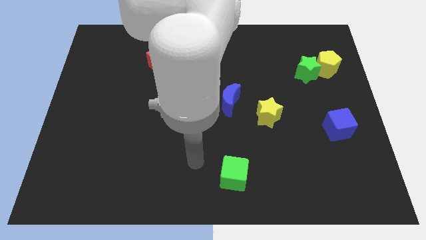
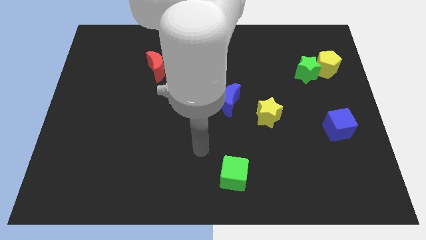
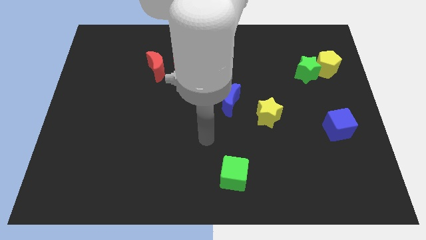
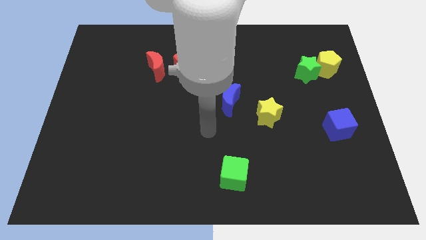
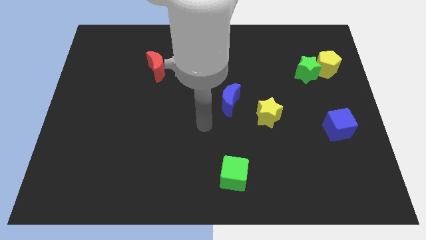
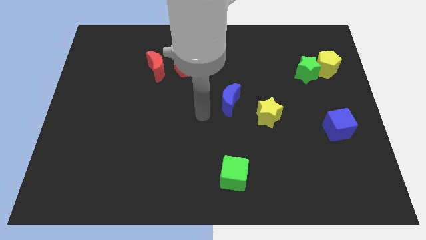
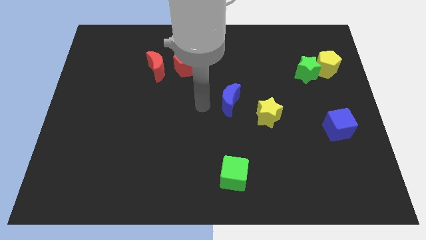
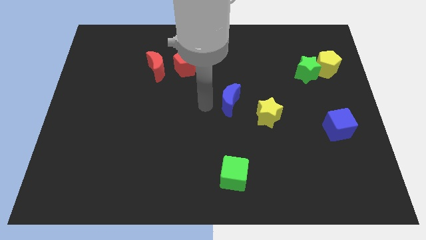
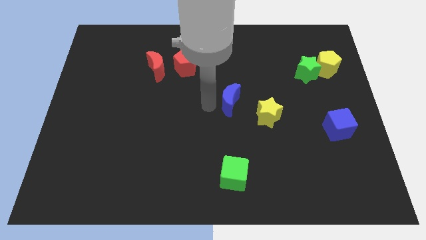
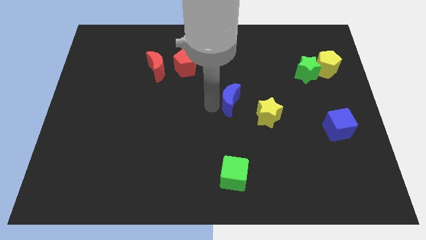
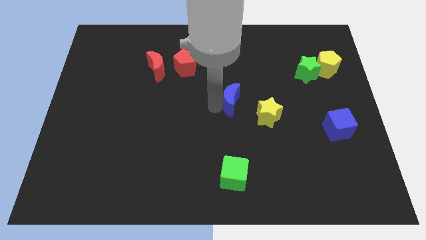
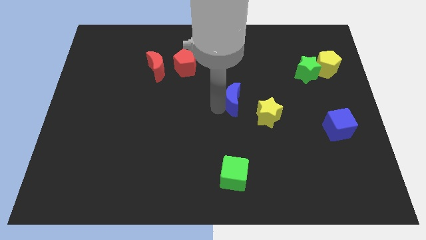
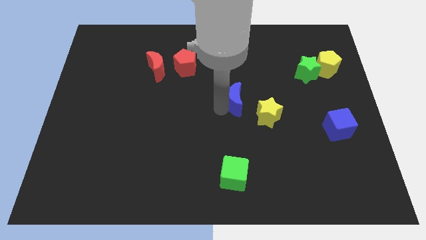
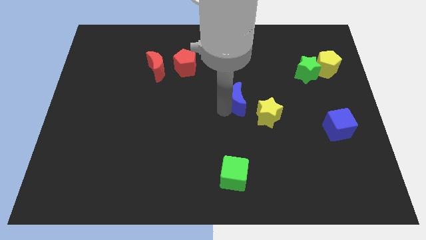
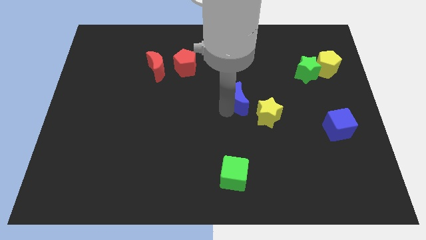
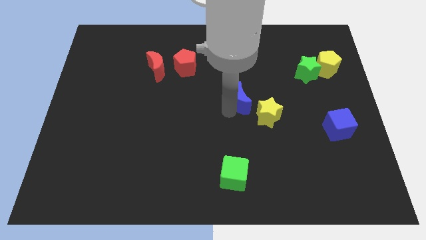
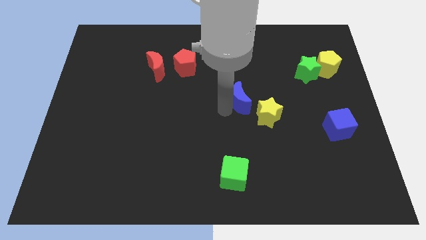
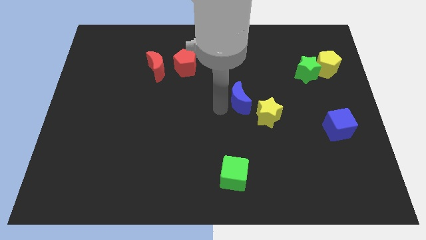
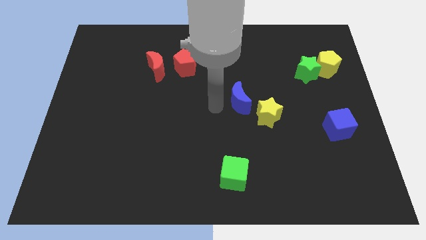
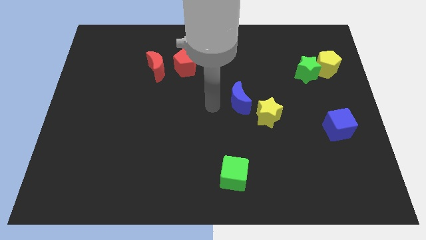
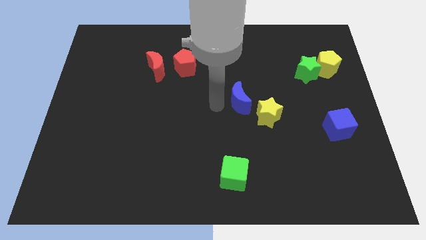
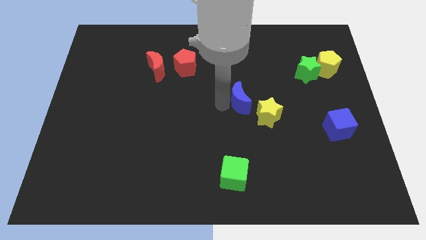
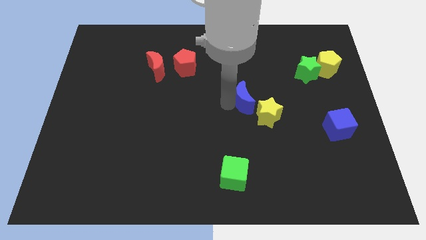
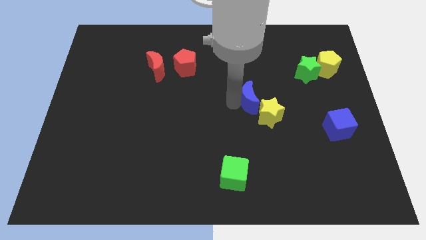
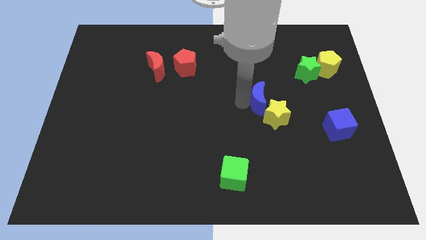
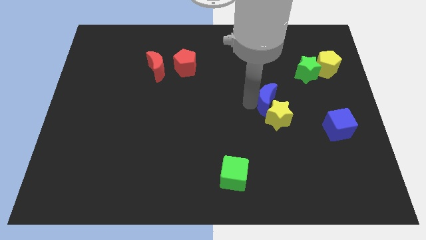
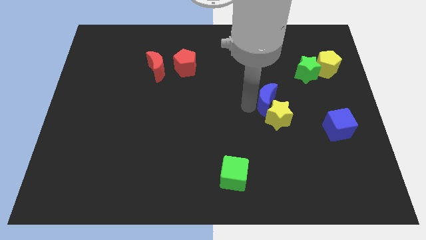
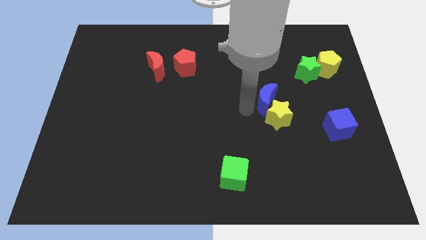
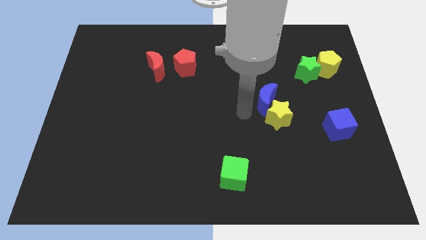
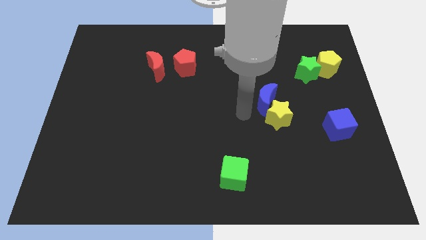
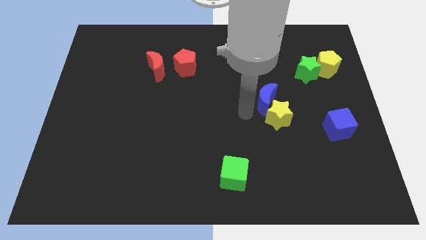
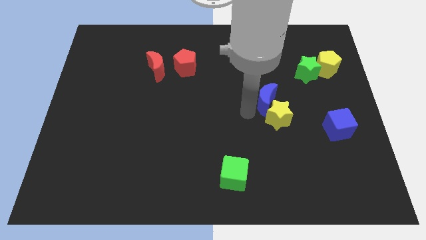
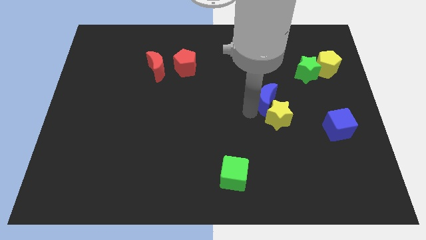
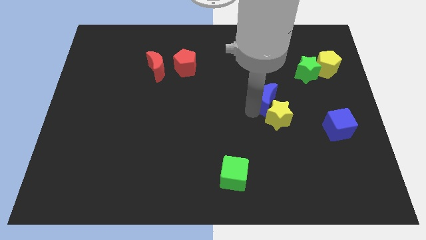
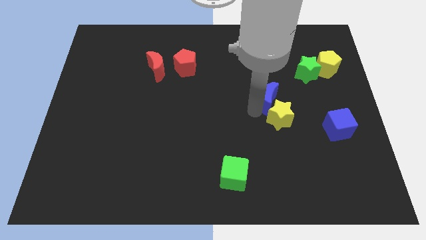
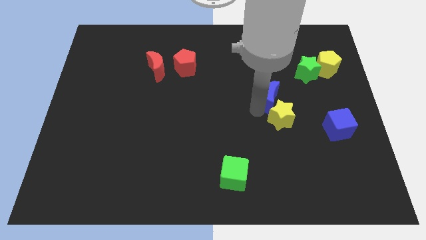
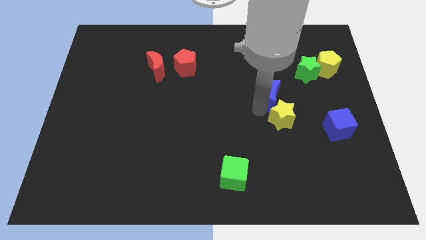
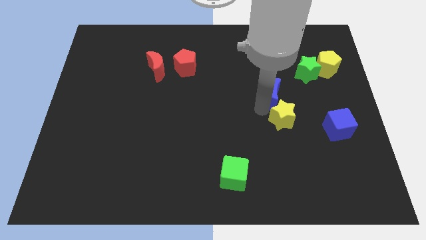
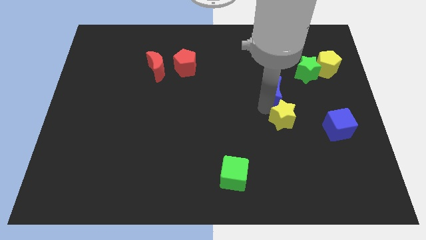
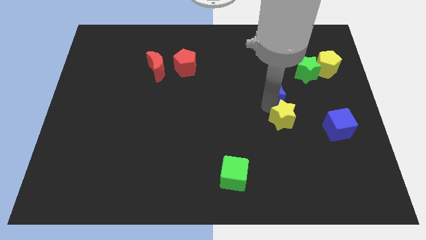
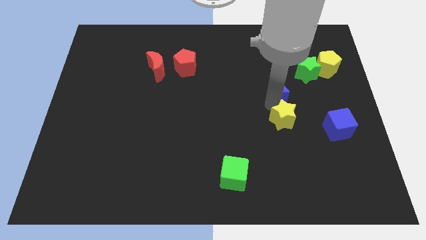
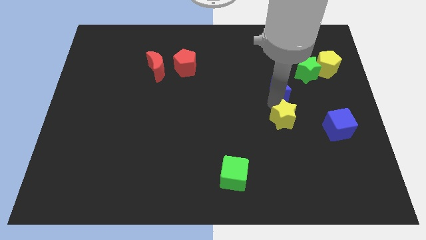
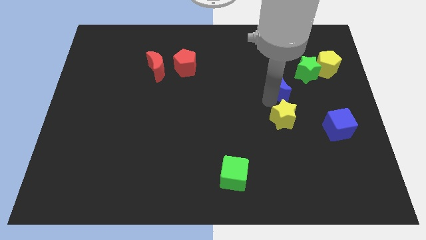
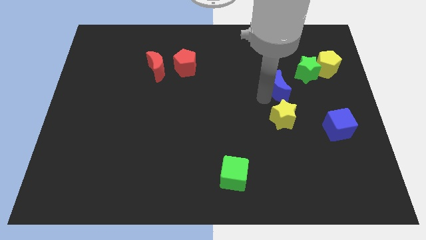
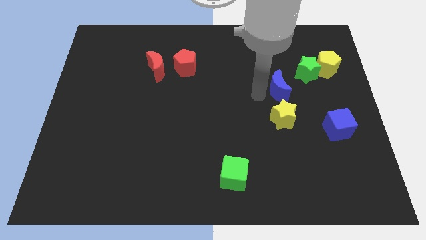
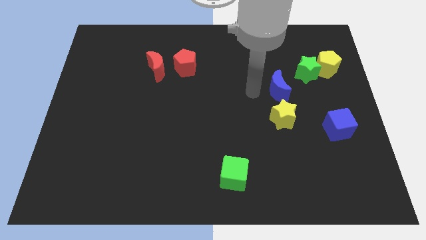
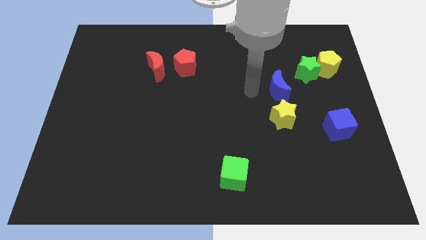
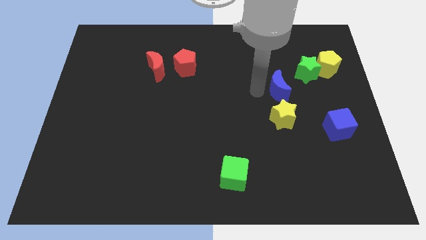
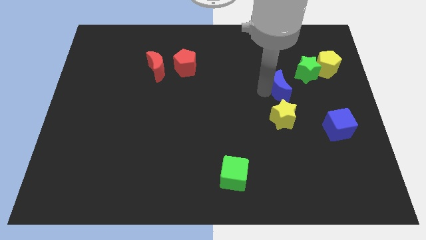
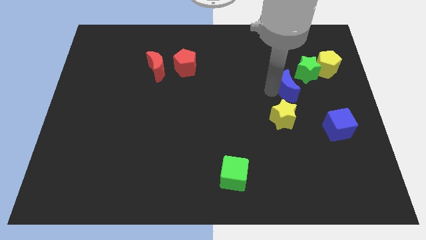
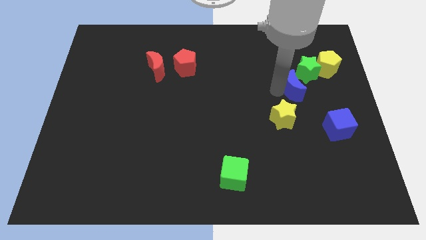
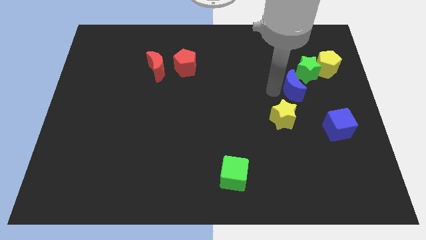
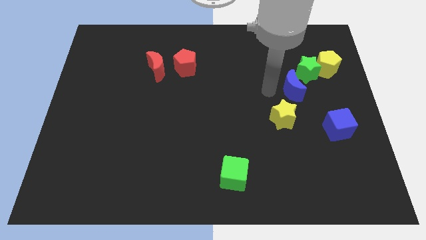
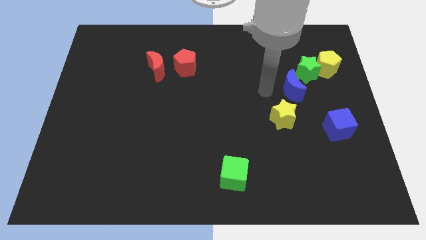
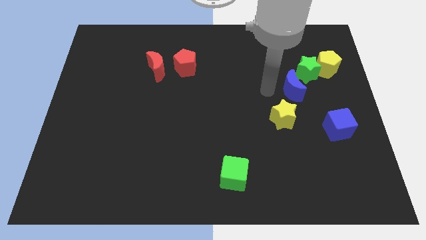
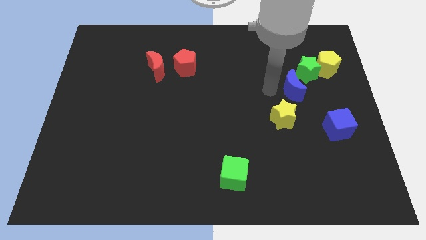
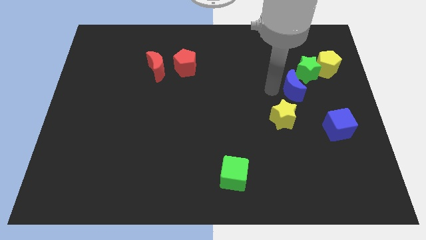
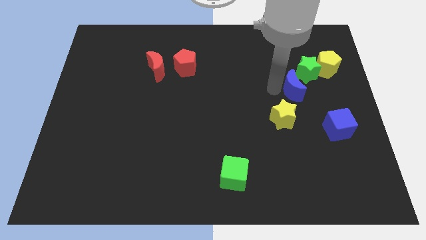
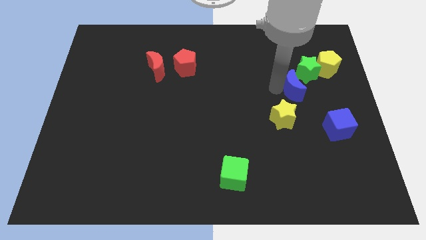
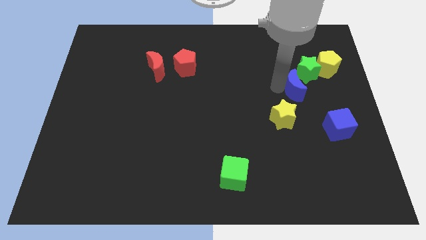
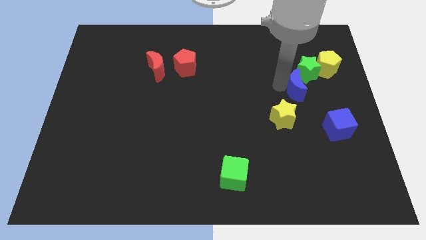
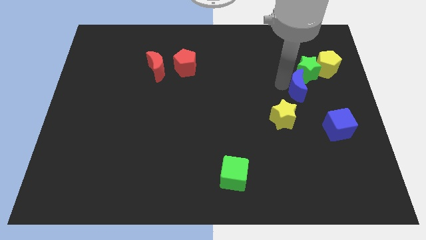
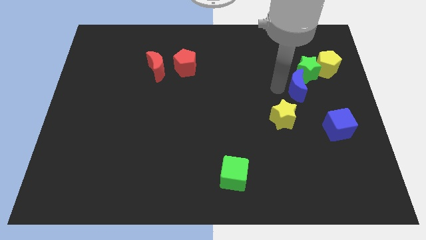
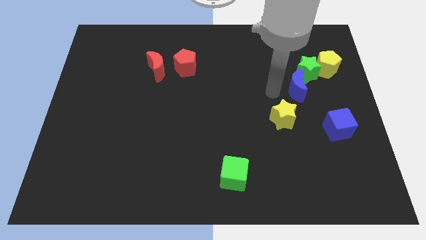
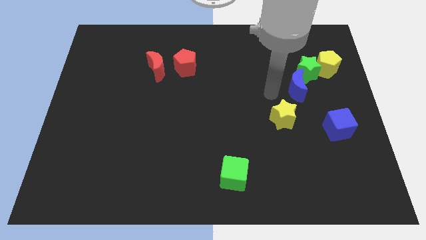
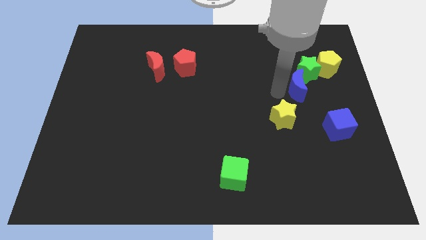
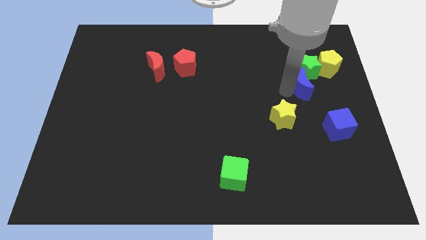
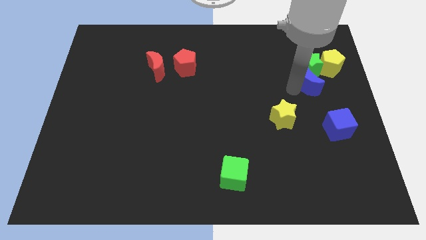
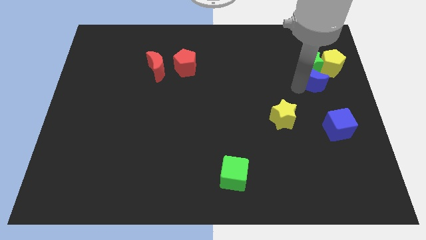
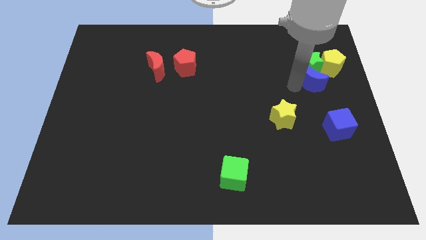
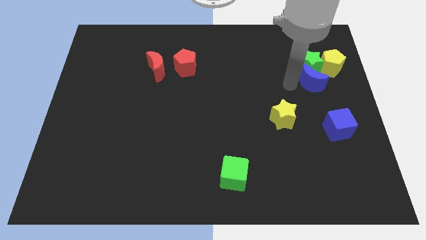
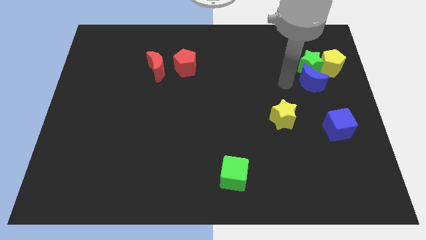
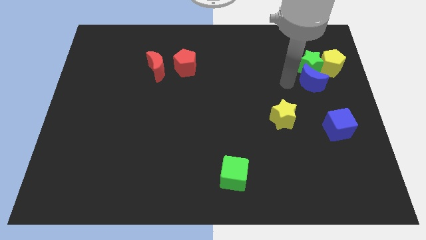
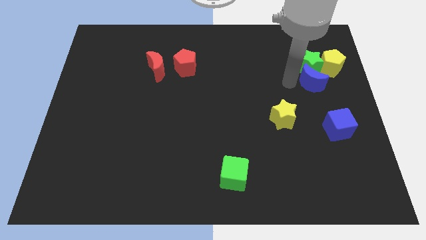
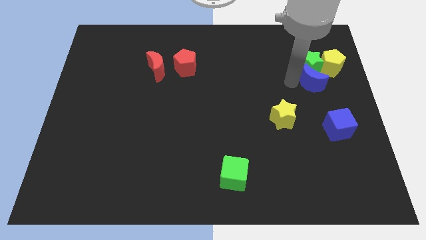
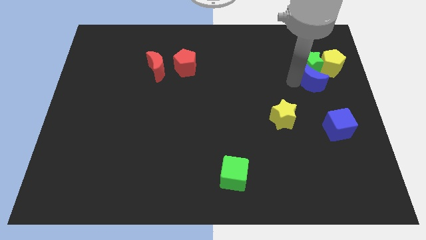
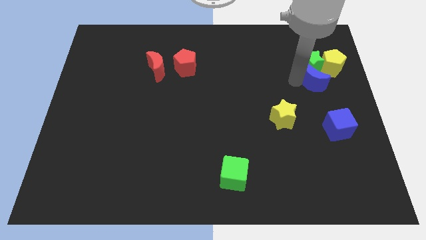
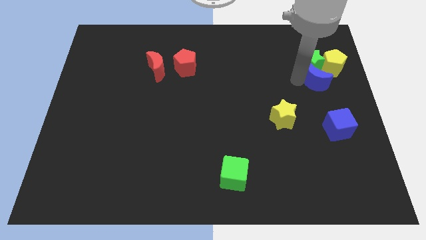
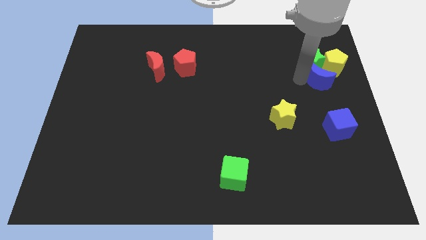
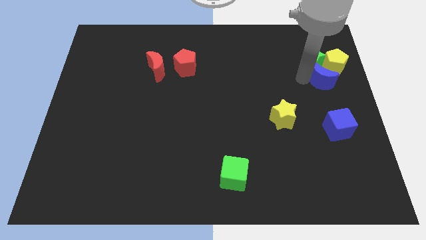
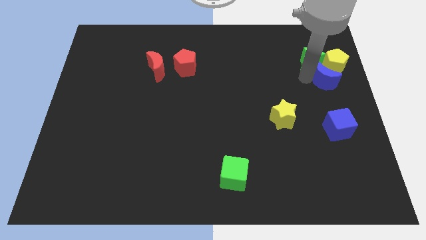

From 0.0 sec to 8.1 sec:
slide the blue moon next to the yellow pentagon
